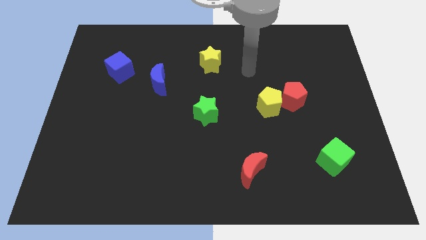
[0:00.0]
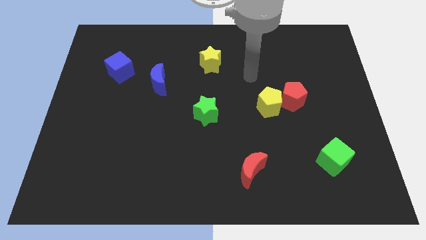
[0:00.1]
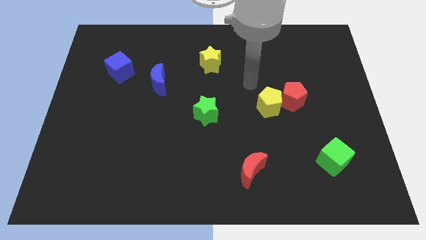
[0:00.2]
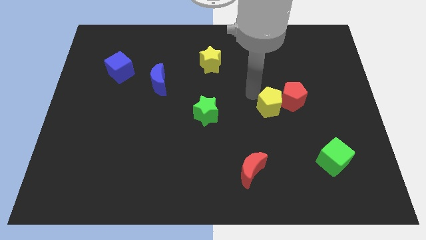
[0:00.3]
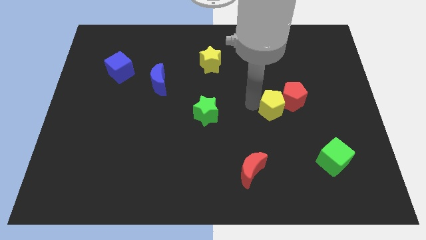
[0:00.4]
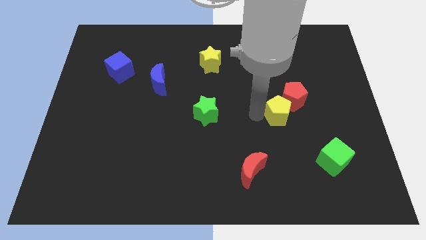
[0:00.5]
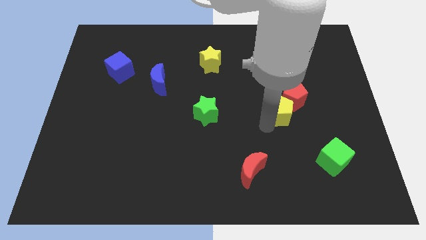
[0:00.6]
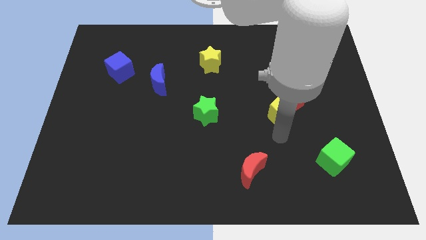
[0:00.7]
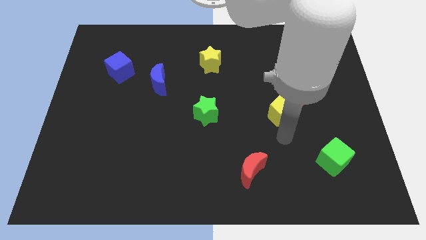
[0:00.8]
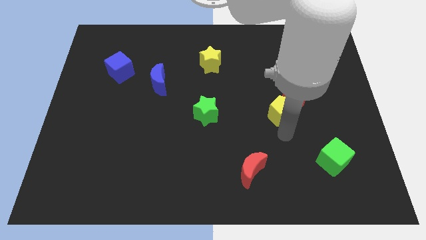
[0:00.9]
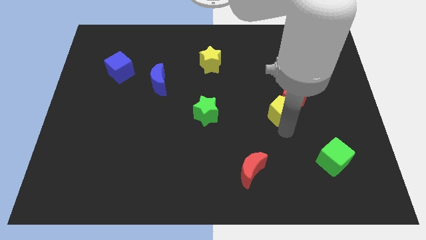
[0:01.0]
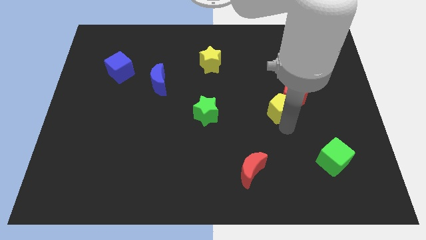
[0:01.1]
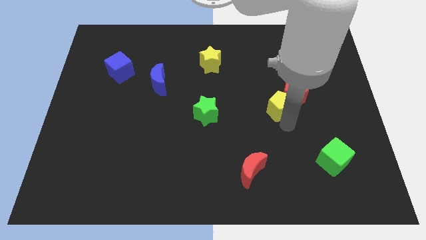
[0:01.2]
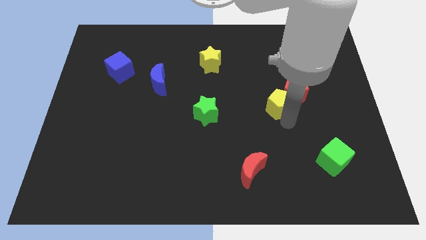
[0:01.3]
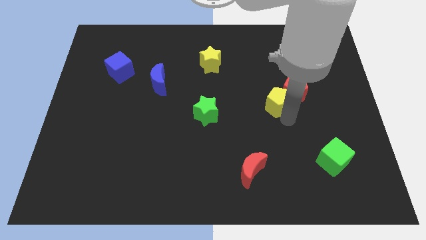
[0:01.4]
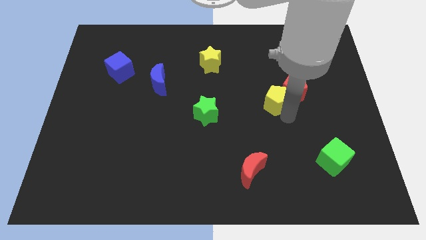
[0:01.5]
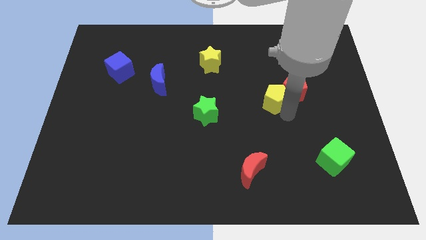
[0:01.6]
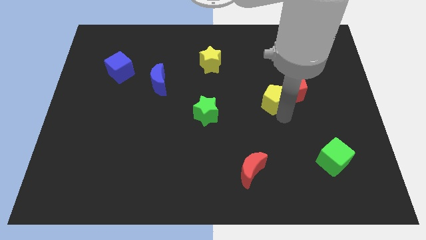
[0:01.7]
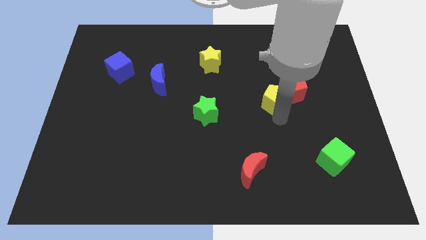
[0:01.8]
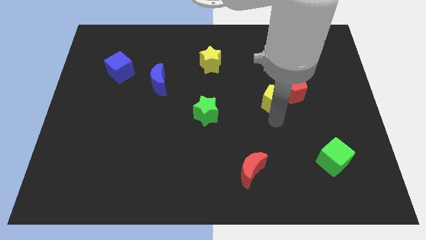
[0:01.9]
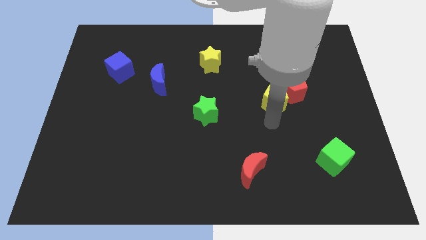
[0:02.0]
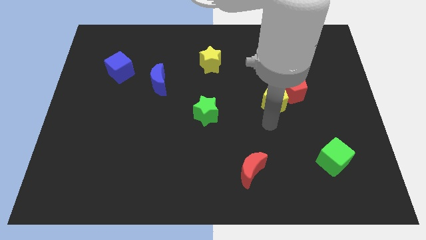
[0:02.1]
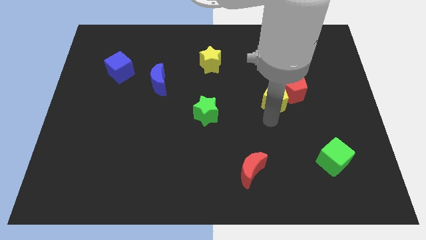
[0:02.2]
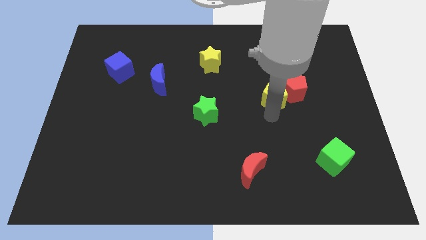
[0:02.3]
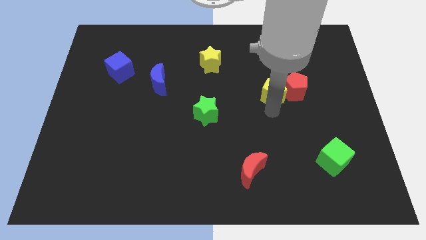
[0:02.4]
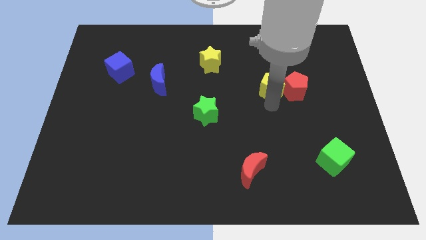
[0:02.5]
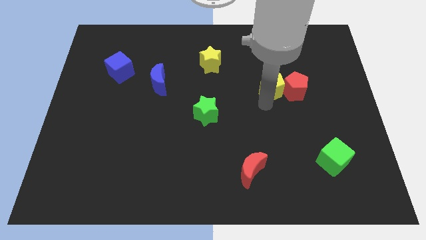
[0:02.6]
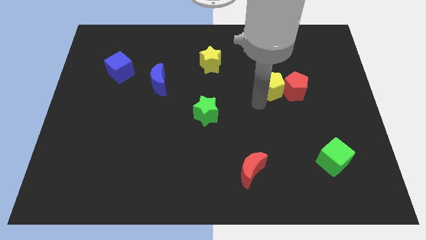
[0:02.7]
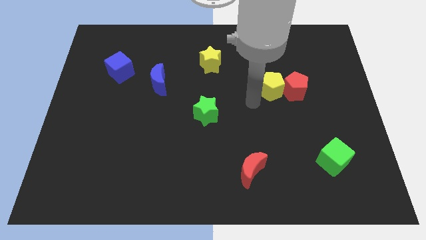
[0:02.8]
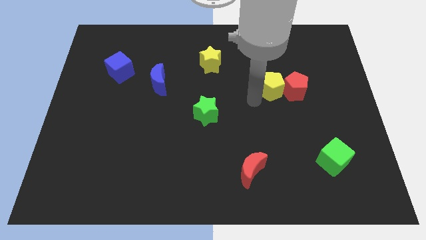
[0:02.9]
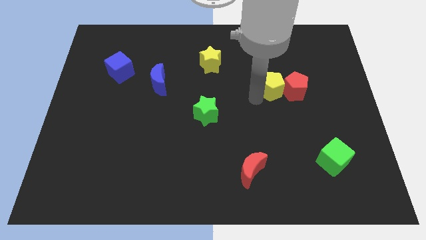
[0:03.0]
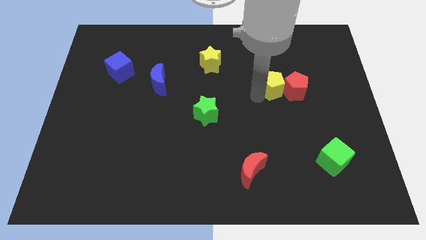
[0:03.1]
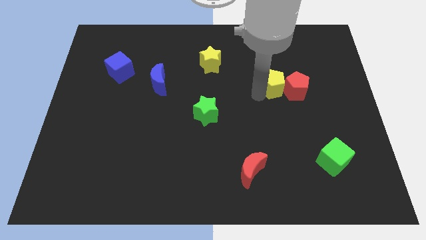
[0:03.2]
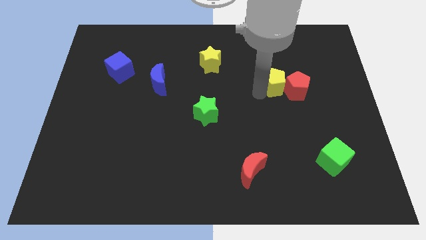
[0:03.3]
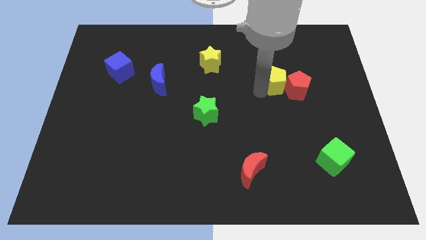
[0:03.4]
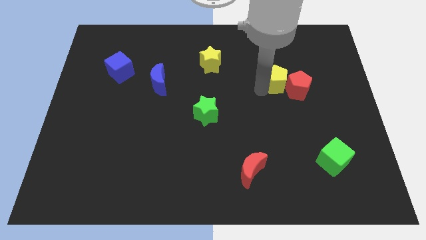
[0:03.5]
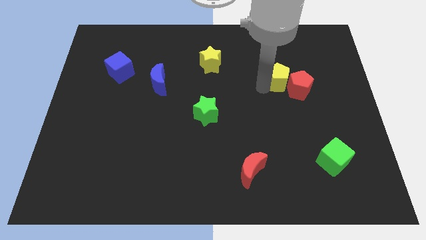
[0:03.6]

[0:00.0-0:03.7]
push the yellow pentagon up and then right a little

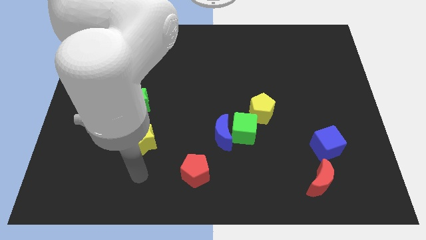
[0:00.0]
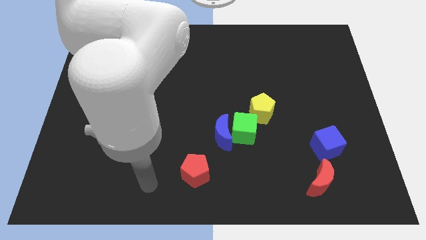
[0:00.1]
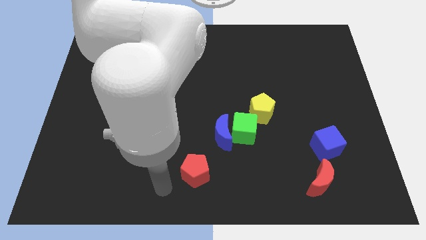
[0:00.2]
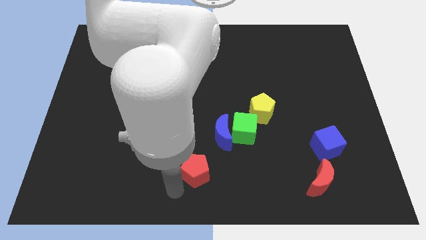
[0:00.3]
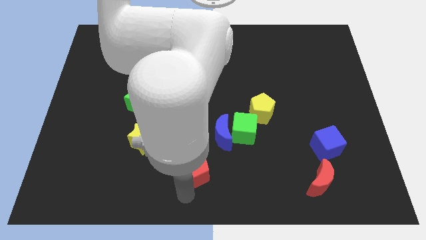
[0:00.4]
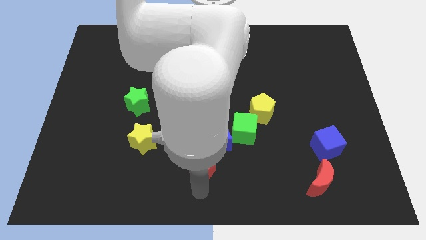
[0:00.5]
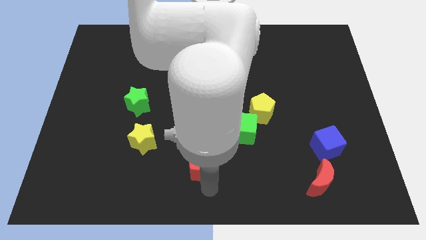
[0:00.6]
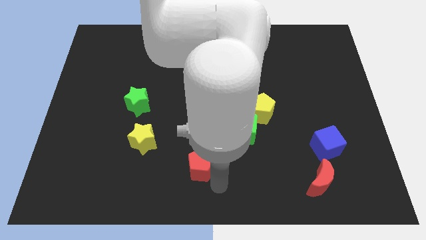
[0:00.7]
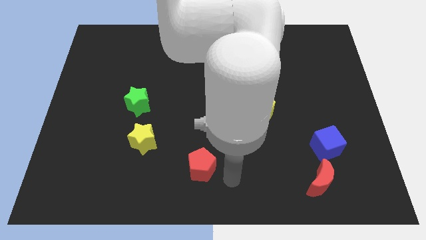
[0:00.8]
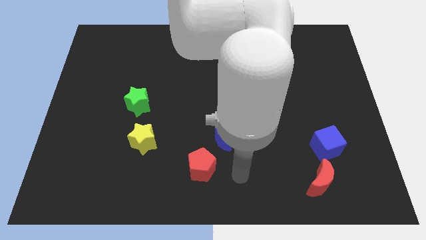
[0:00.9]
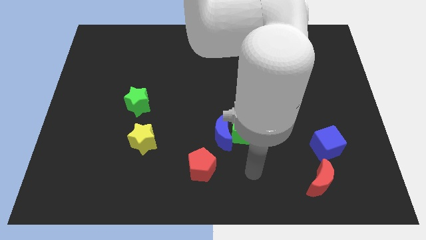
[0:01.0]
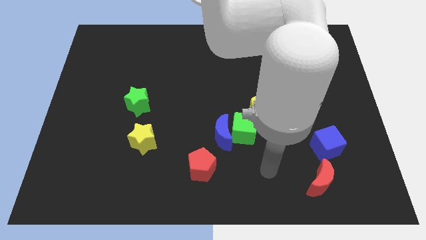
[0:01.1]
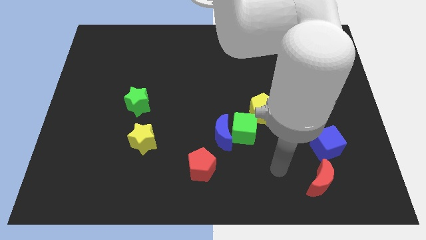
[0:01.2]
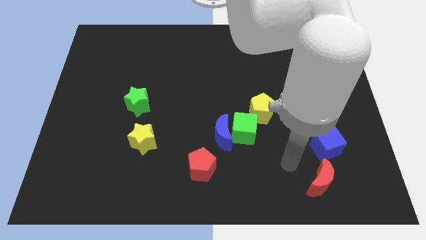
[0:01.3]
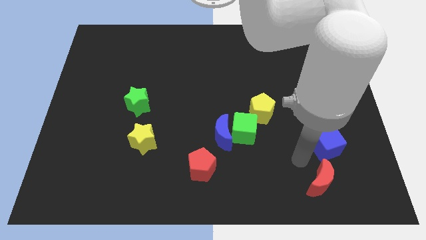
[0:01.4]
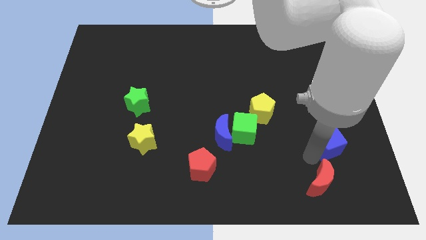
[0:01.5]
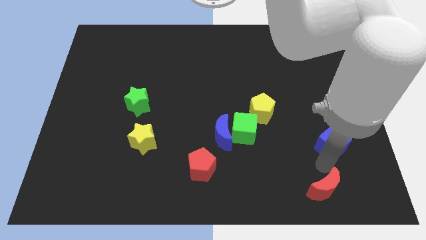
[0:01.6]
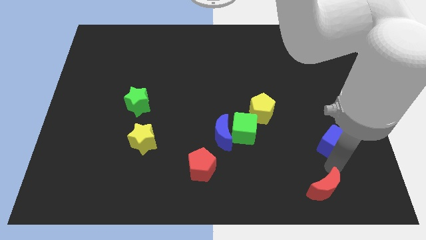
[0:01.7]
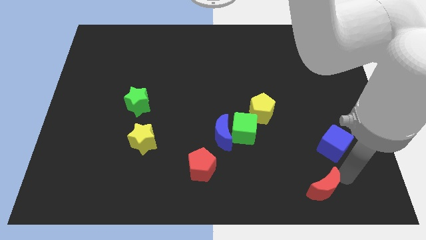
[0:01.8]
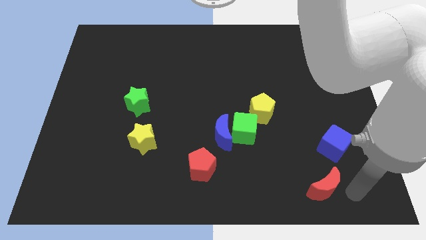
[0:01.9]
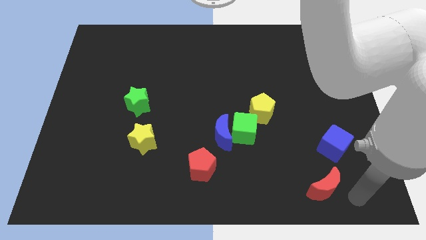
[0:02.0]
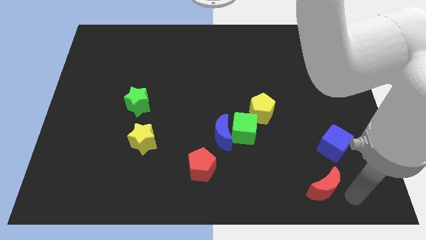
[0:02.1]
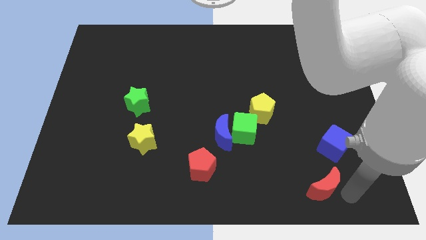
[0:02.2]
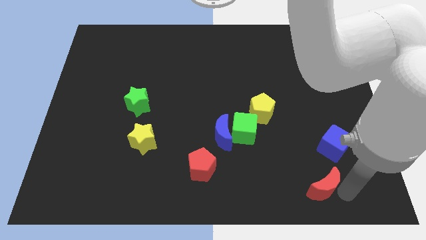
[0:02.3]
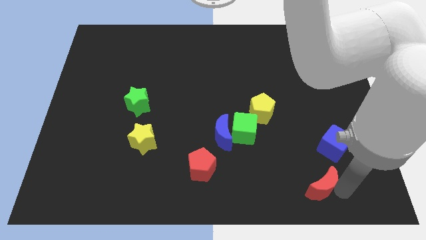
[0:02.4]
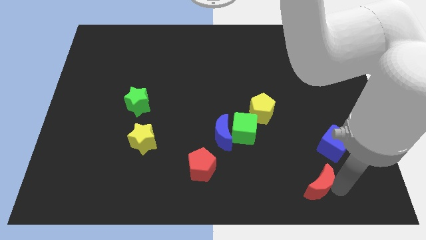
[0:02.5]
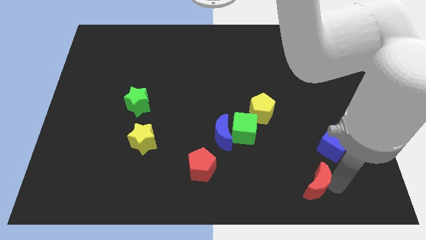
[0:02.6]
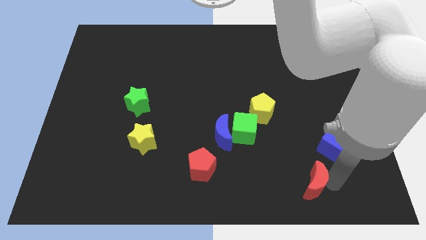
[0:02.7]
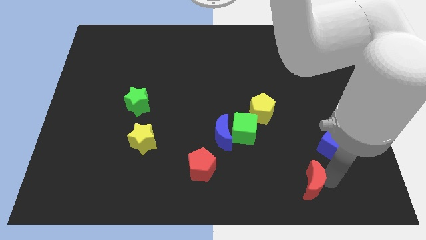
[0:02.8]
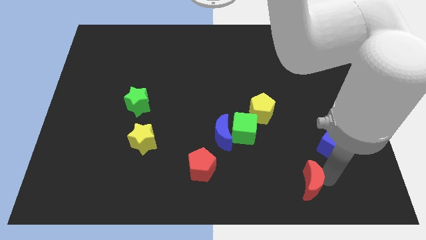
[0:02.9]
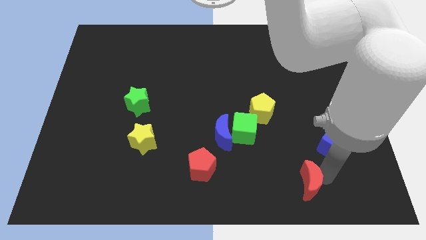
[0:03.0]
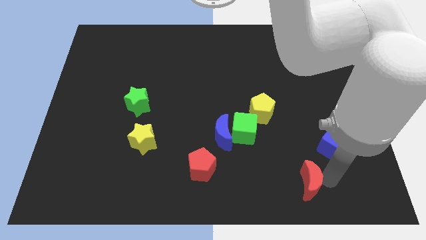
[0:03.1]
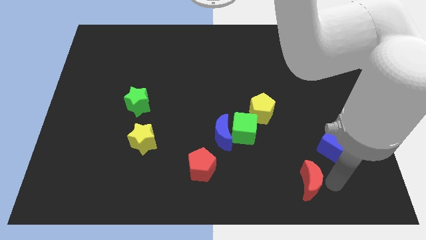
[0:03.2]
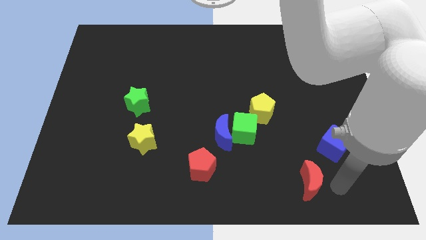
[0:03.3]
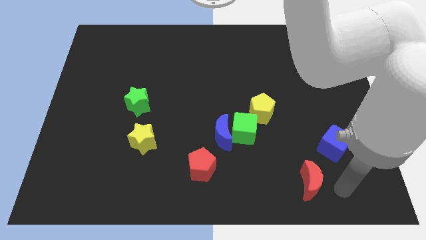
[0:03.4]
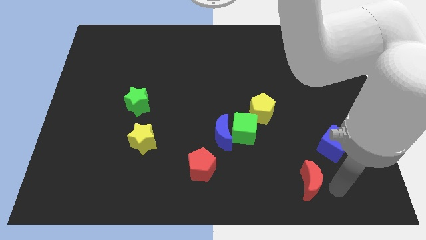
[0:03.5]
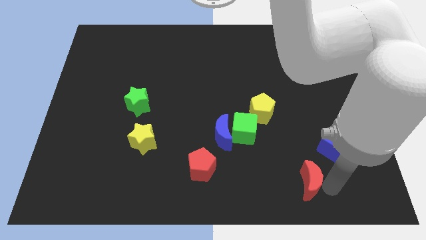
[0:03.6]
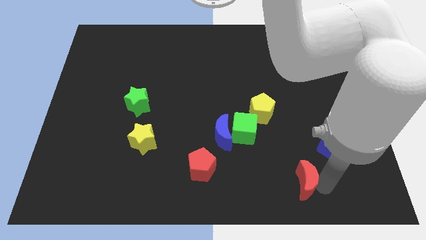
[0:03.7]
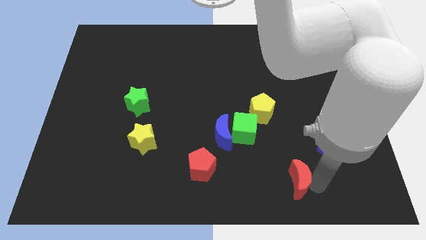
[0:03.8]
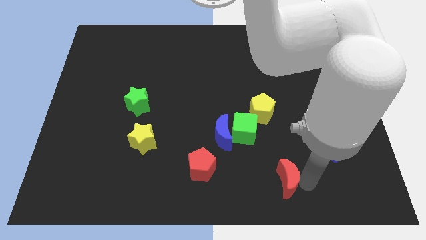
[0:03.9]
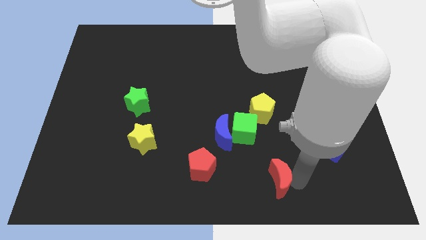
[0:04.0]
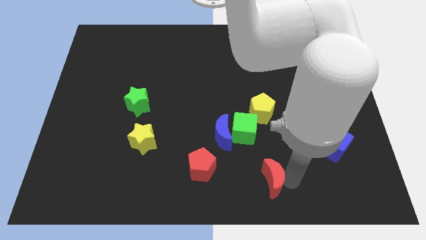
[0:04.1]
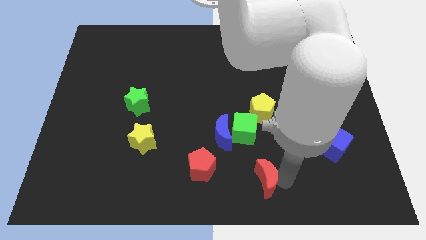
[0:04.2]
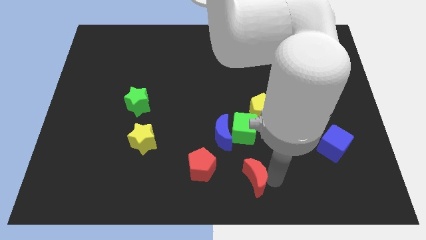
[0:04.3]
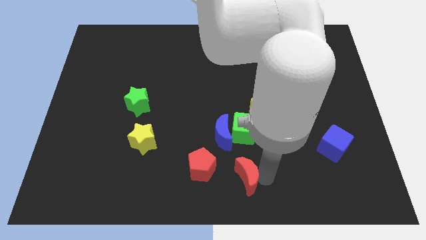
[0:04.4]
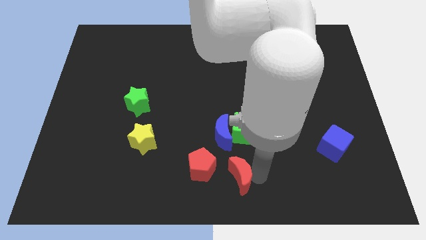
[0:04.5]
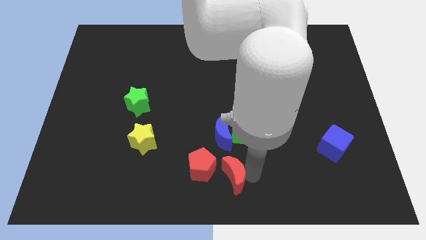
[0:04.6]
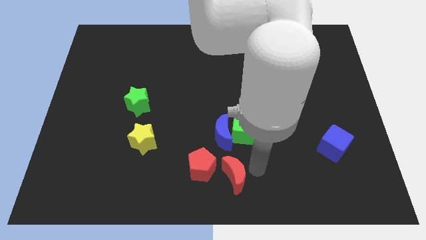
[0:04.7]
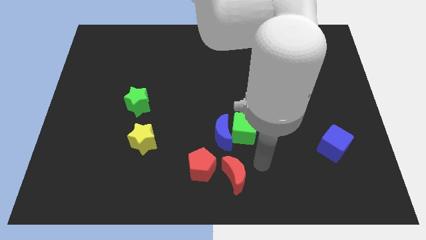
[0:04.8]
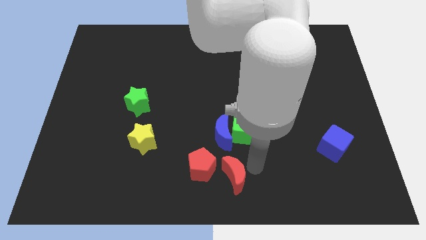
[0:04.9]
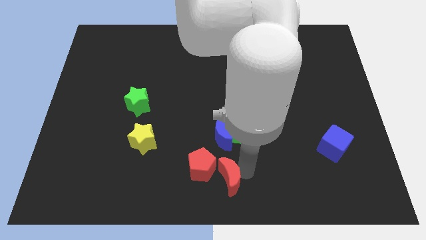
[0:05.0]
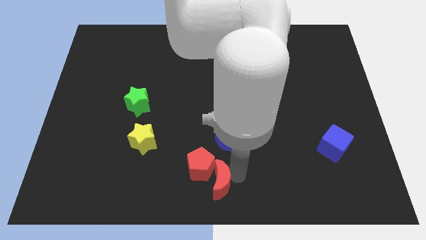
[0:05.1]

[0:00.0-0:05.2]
slide the red moon to the left
